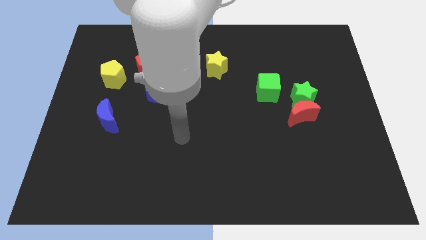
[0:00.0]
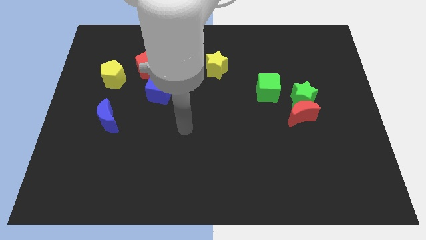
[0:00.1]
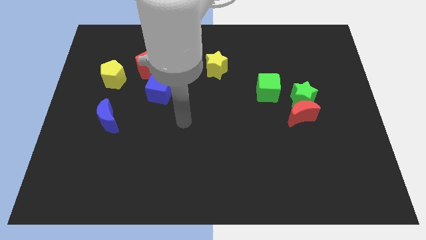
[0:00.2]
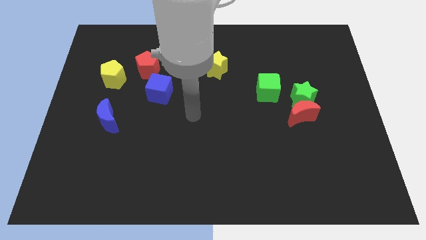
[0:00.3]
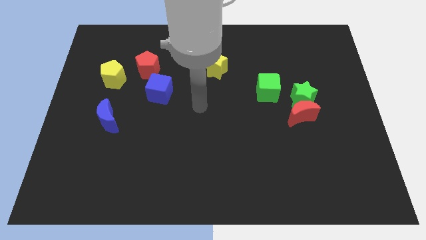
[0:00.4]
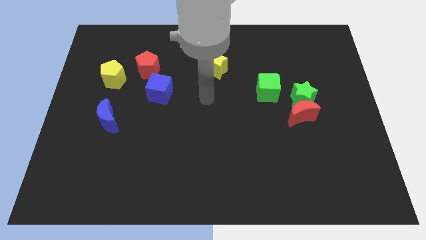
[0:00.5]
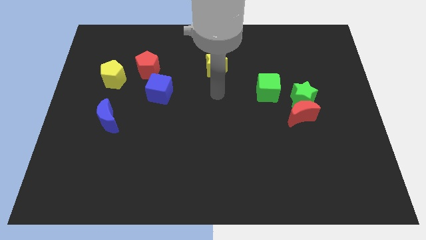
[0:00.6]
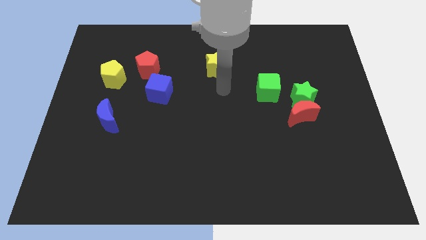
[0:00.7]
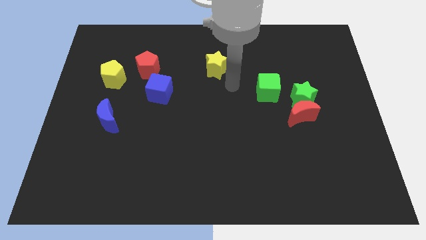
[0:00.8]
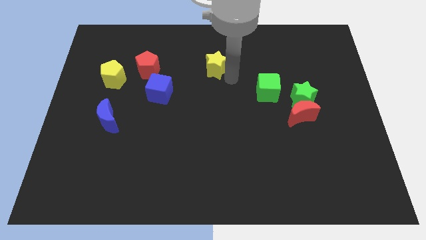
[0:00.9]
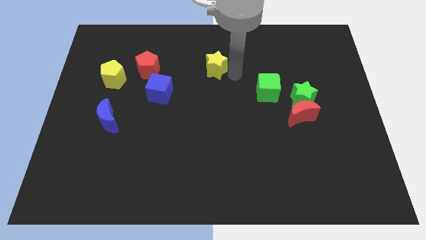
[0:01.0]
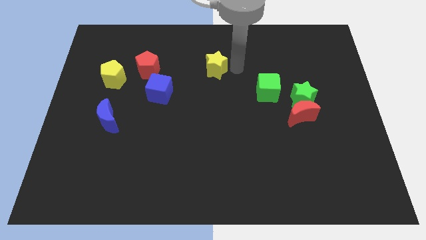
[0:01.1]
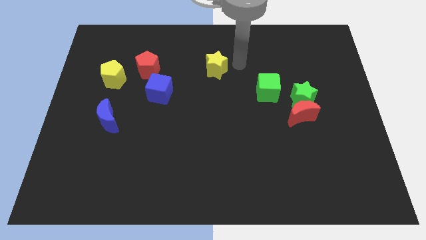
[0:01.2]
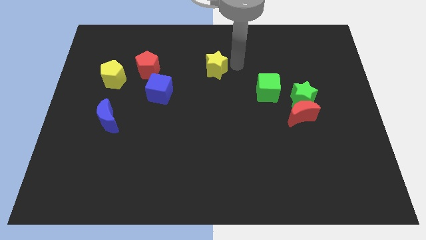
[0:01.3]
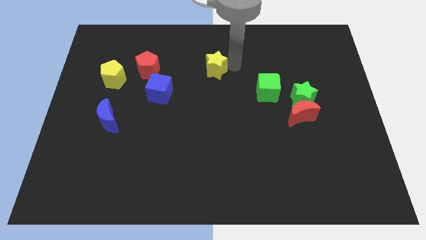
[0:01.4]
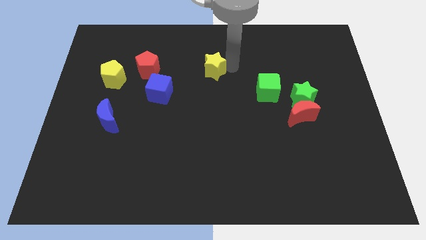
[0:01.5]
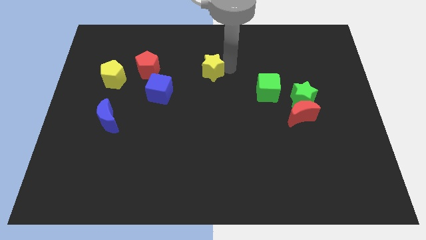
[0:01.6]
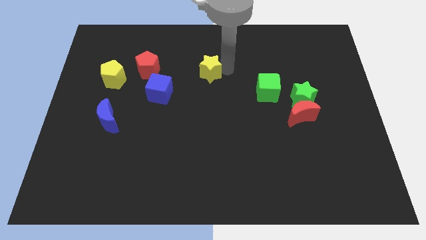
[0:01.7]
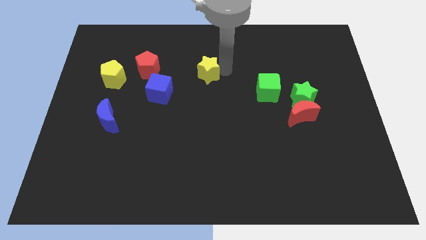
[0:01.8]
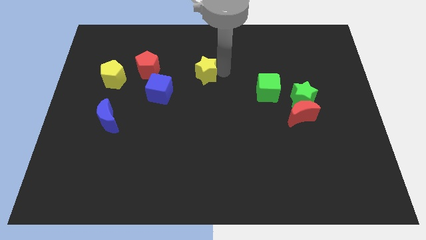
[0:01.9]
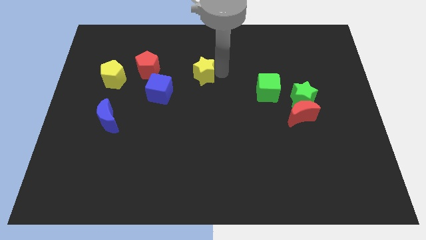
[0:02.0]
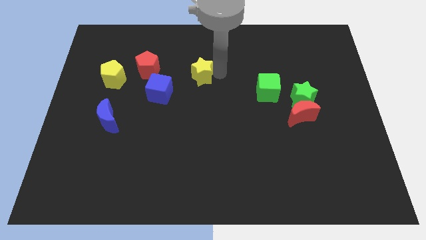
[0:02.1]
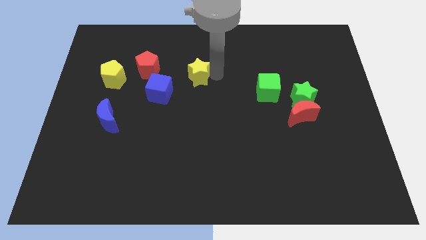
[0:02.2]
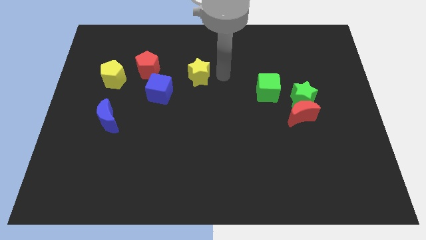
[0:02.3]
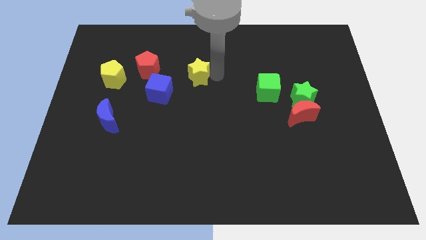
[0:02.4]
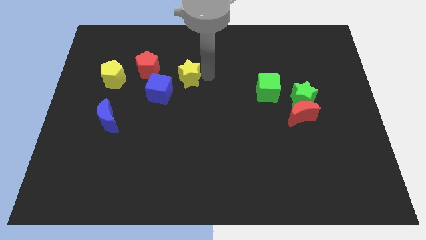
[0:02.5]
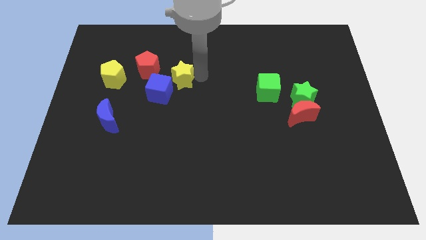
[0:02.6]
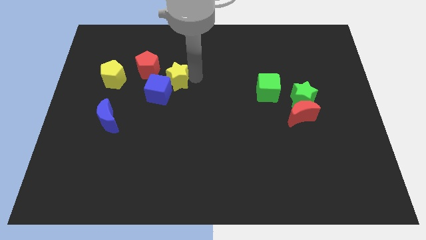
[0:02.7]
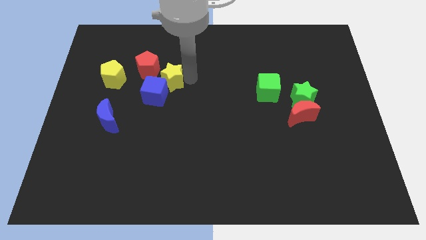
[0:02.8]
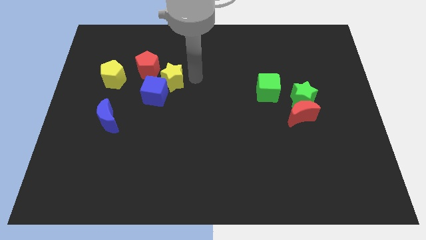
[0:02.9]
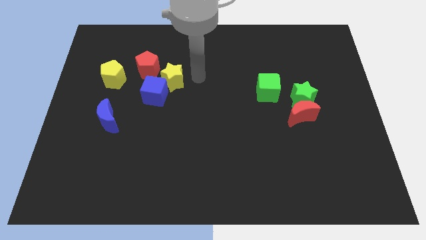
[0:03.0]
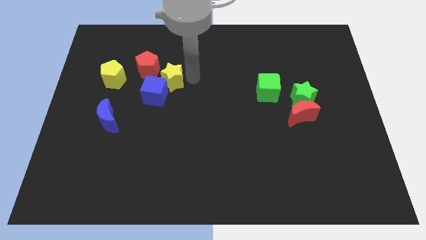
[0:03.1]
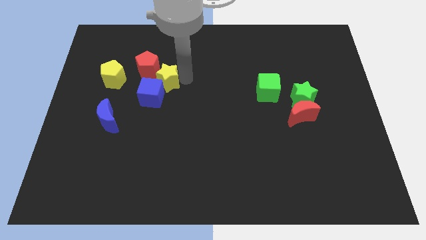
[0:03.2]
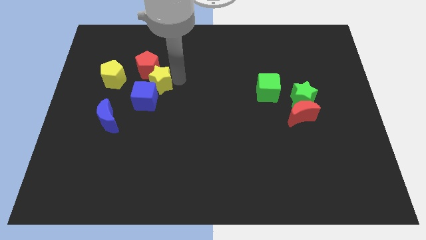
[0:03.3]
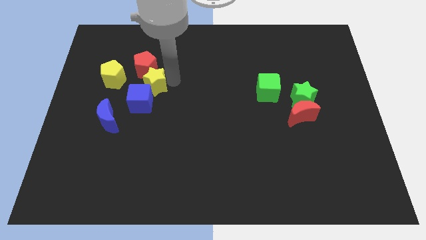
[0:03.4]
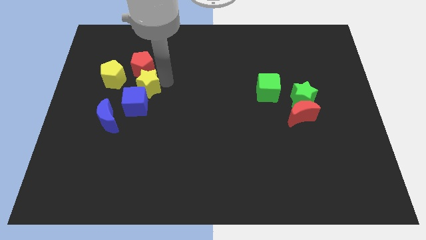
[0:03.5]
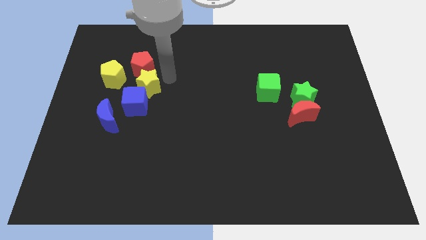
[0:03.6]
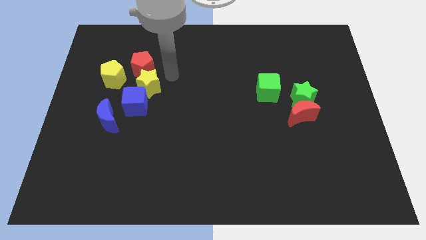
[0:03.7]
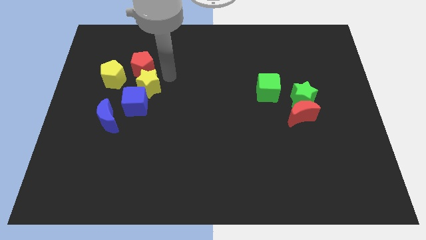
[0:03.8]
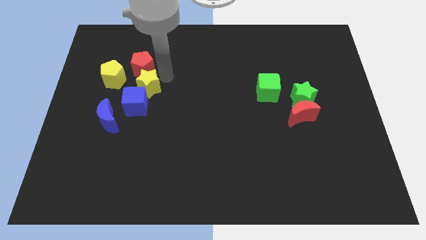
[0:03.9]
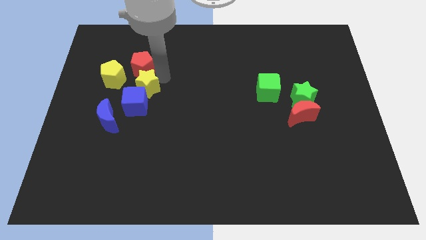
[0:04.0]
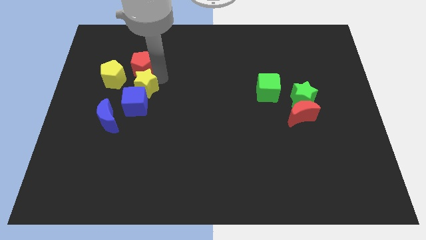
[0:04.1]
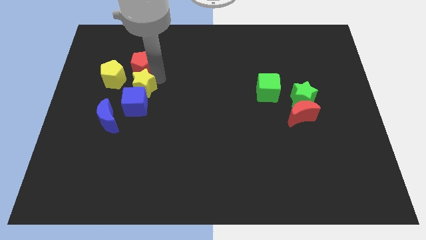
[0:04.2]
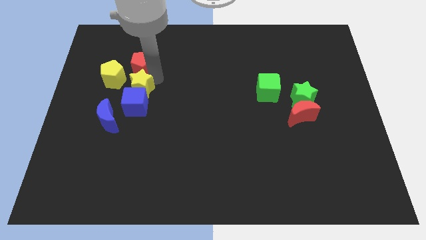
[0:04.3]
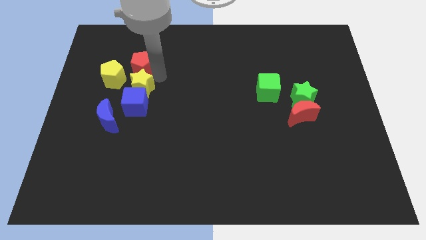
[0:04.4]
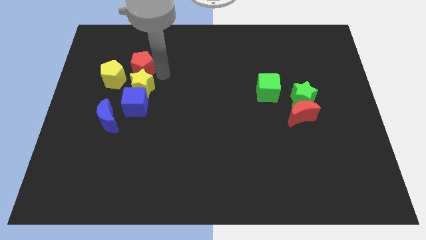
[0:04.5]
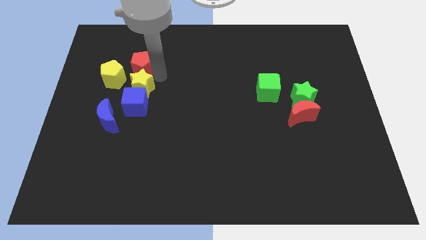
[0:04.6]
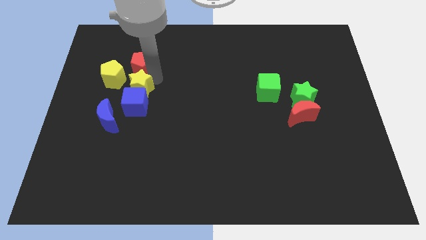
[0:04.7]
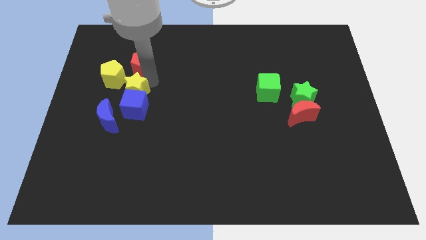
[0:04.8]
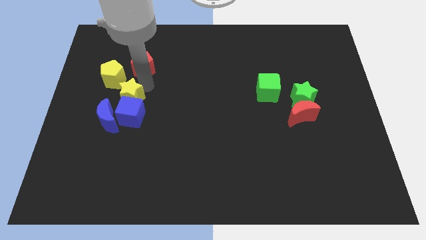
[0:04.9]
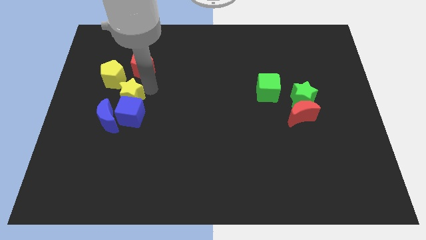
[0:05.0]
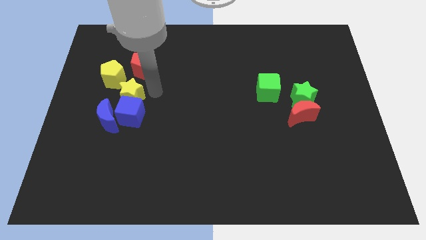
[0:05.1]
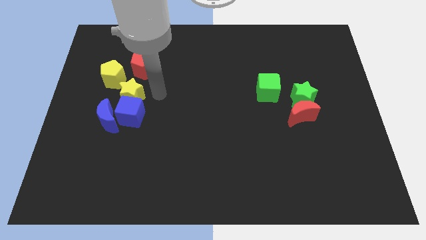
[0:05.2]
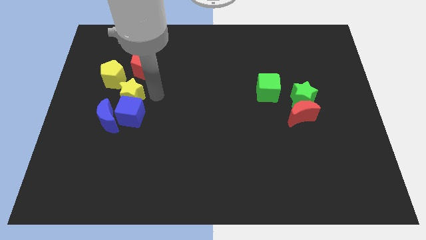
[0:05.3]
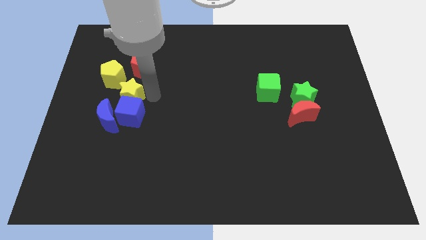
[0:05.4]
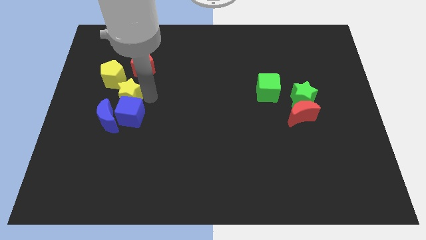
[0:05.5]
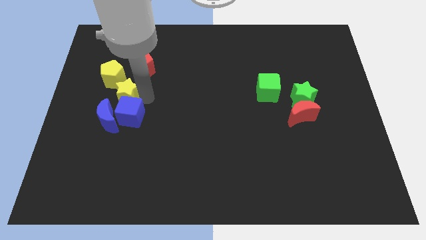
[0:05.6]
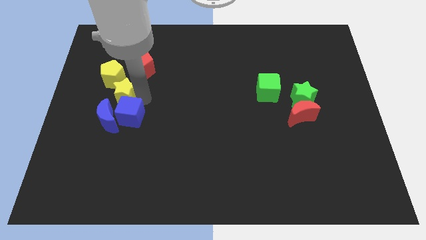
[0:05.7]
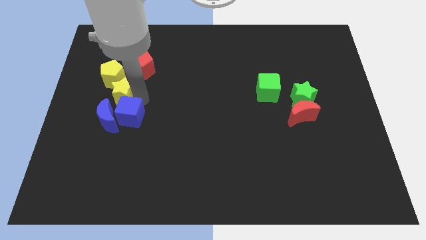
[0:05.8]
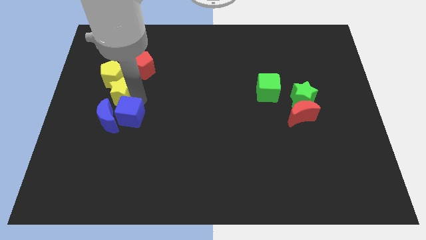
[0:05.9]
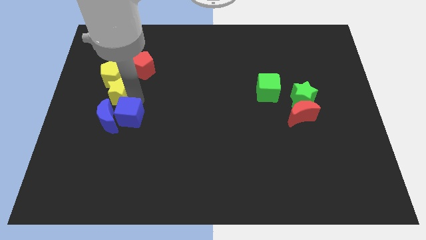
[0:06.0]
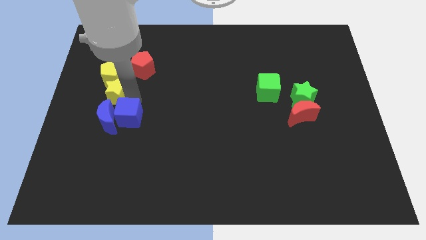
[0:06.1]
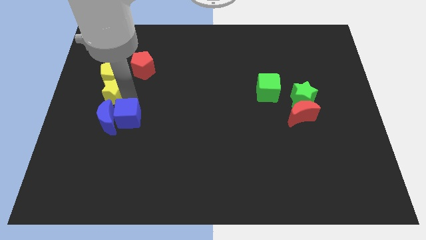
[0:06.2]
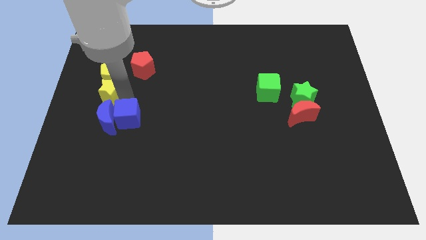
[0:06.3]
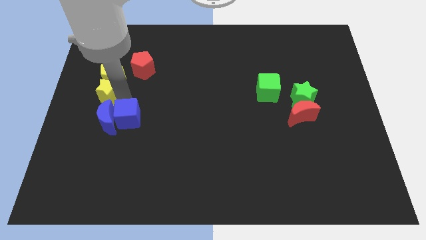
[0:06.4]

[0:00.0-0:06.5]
slide the yellow star to the left side
